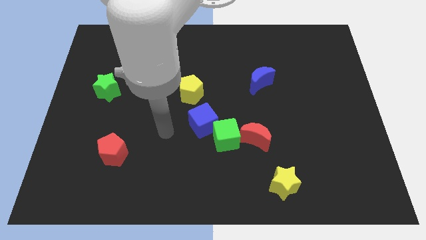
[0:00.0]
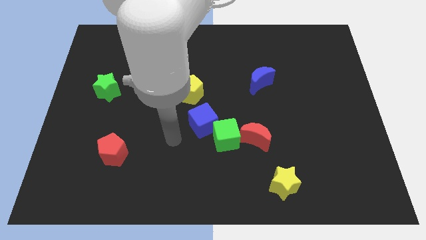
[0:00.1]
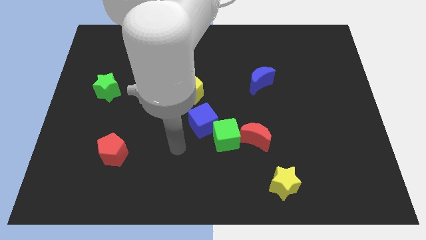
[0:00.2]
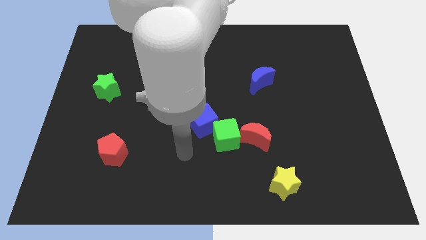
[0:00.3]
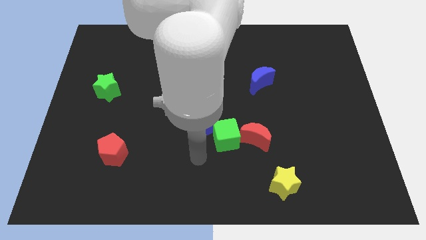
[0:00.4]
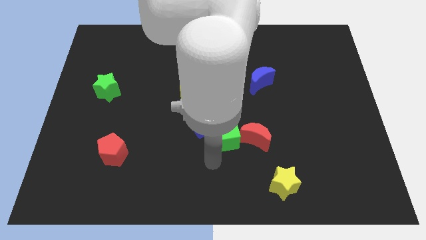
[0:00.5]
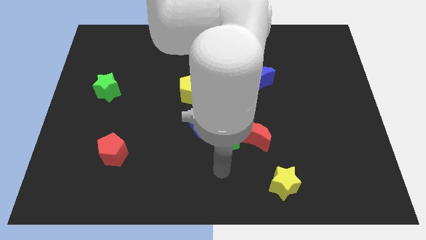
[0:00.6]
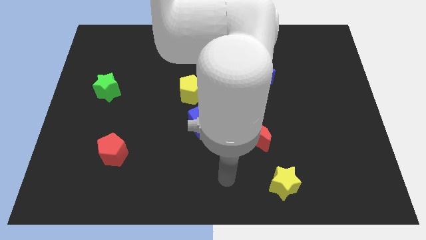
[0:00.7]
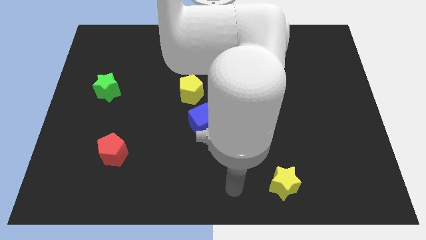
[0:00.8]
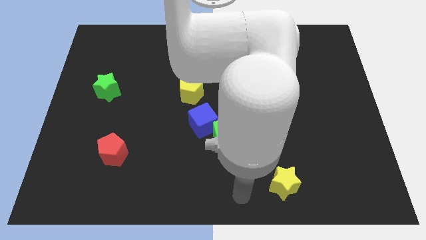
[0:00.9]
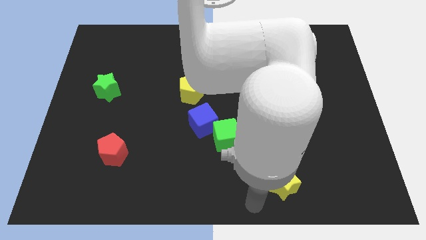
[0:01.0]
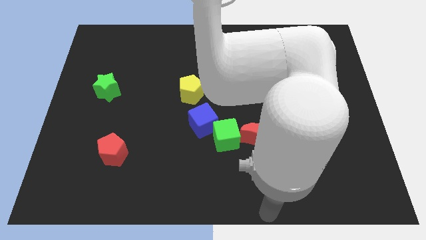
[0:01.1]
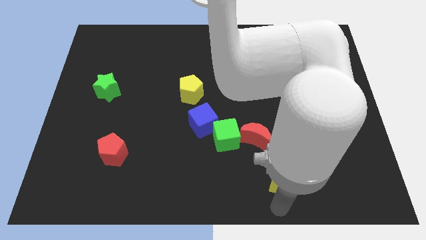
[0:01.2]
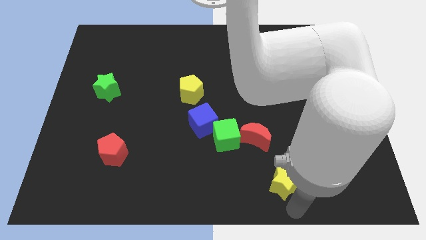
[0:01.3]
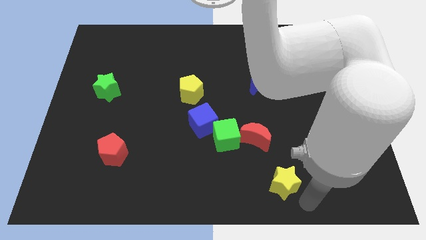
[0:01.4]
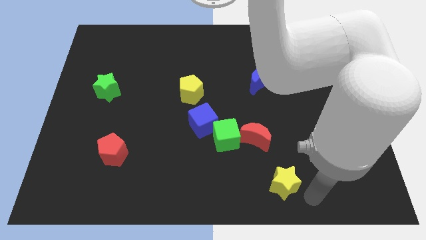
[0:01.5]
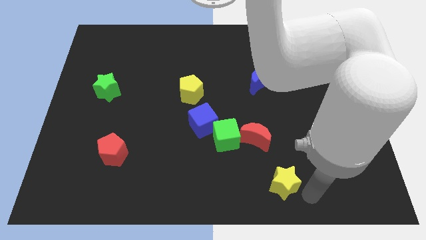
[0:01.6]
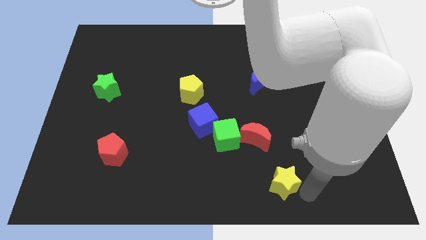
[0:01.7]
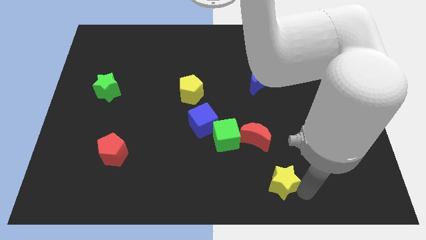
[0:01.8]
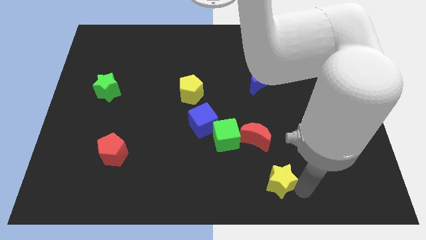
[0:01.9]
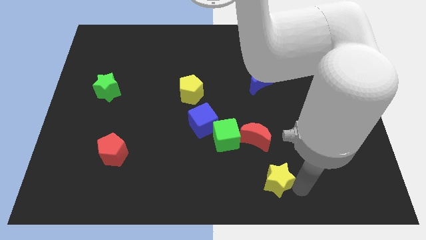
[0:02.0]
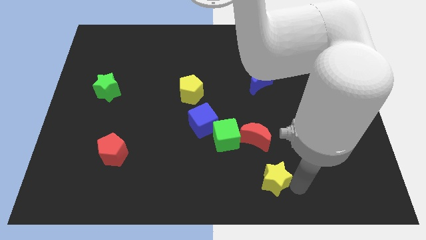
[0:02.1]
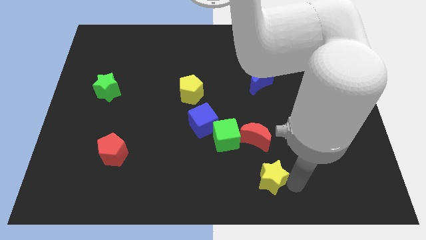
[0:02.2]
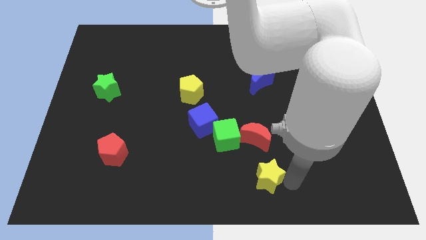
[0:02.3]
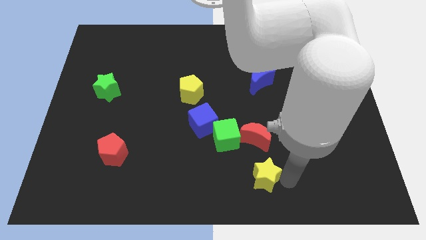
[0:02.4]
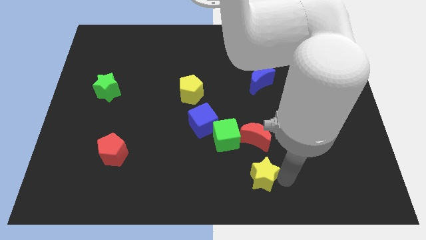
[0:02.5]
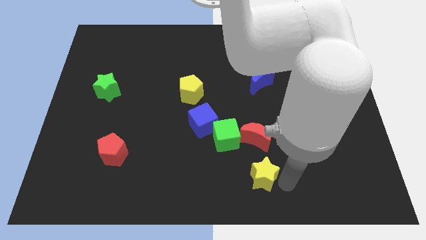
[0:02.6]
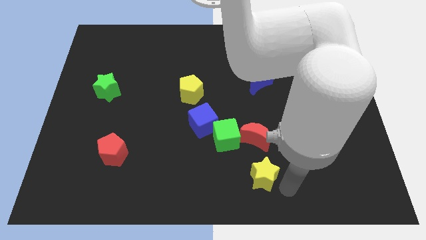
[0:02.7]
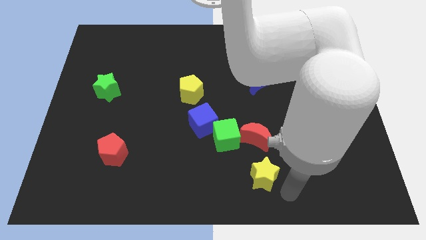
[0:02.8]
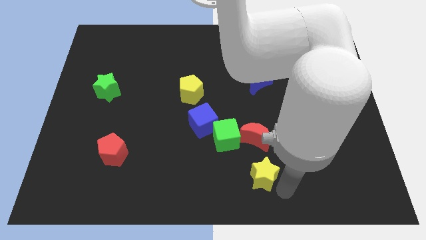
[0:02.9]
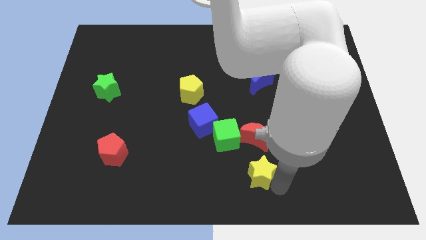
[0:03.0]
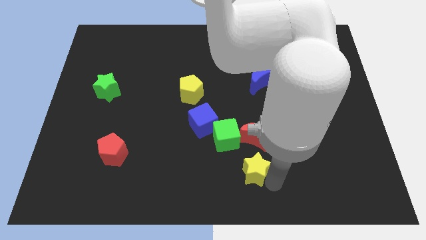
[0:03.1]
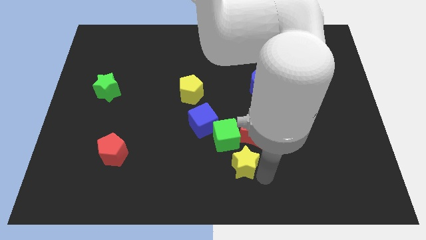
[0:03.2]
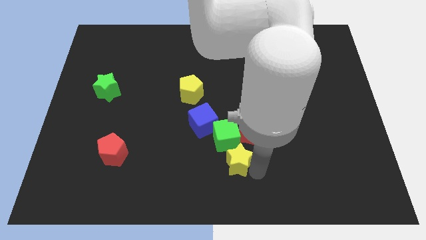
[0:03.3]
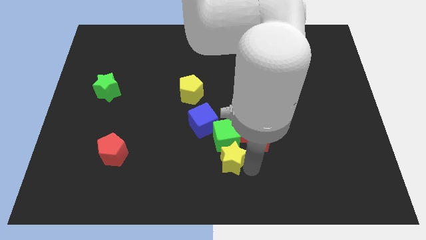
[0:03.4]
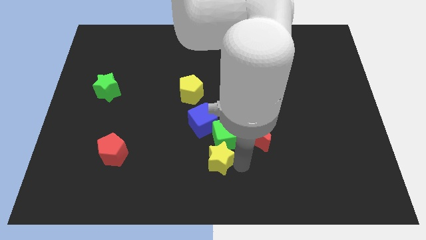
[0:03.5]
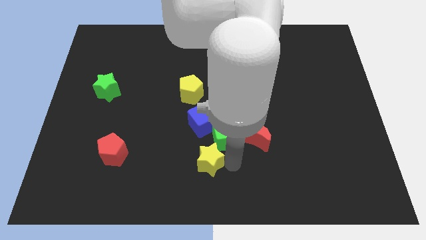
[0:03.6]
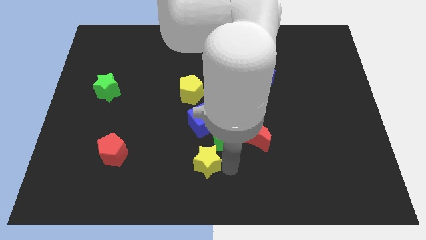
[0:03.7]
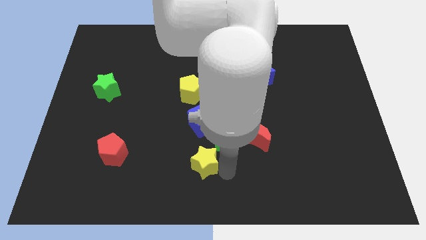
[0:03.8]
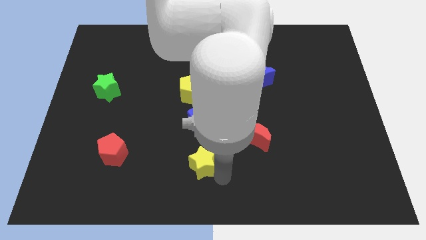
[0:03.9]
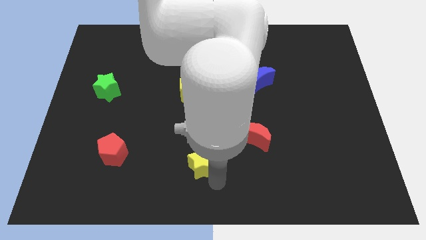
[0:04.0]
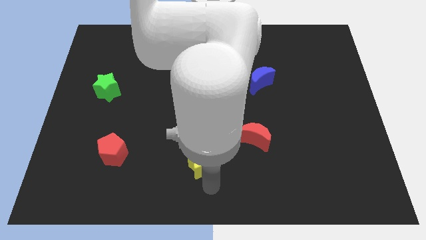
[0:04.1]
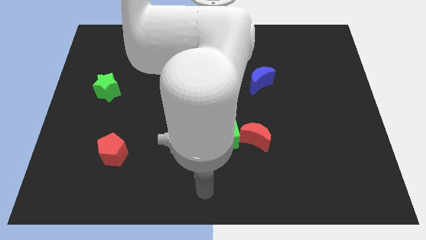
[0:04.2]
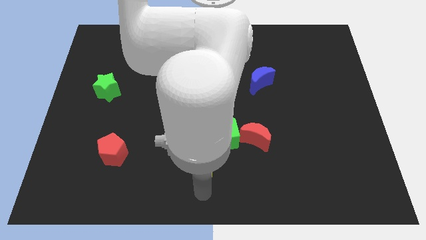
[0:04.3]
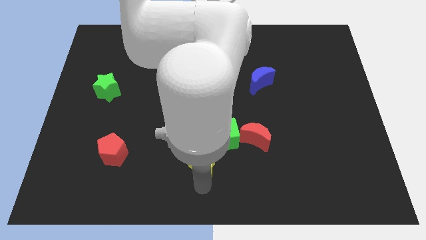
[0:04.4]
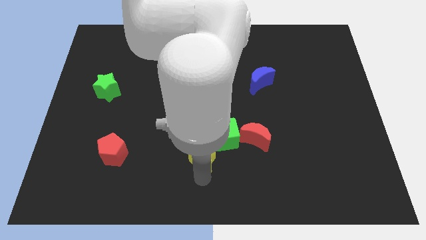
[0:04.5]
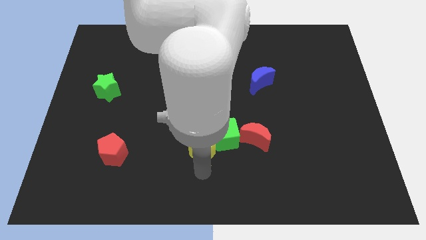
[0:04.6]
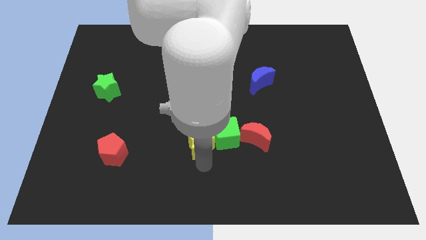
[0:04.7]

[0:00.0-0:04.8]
slide the yellow star to the bottom of the yellow pentagon

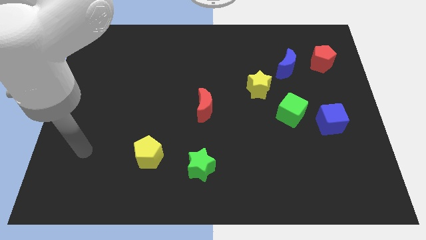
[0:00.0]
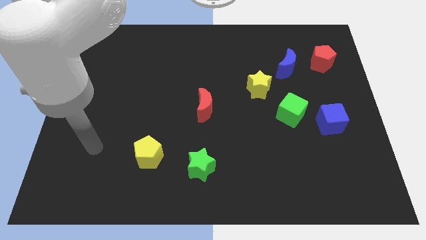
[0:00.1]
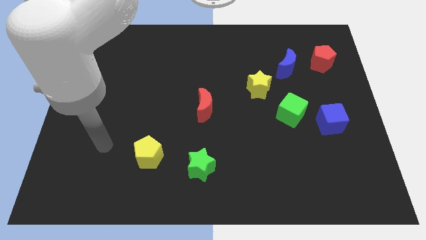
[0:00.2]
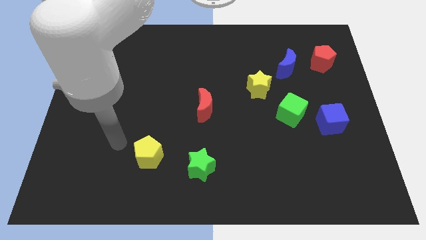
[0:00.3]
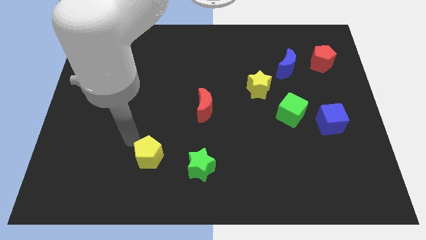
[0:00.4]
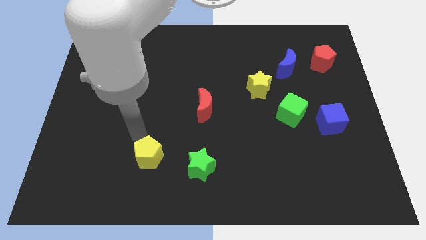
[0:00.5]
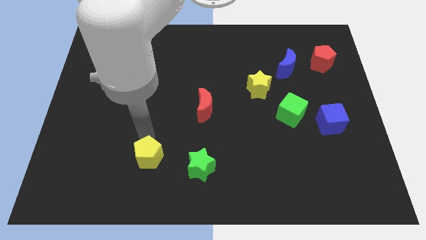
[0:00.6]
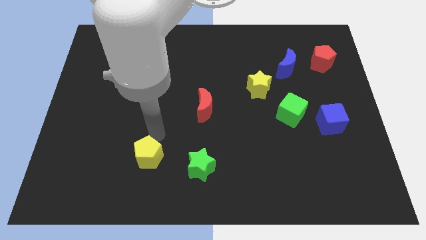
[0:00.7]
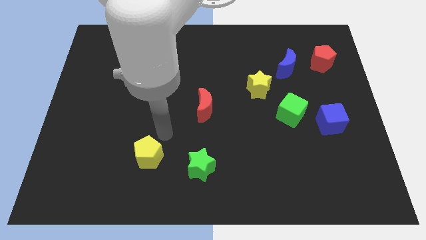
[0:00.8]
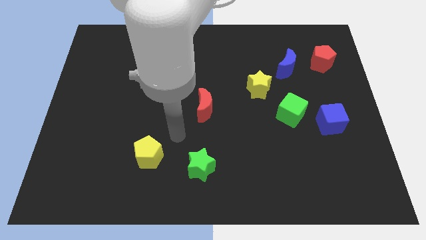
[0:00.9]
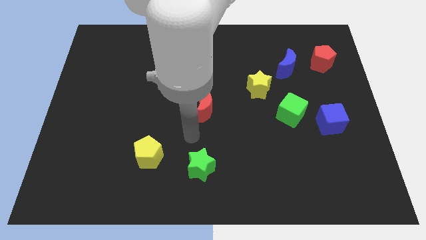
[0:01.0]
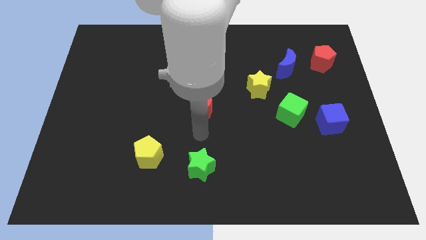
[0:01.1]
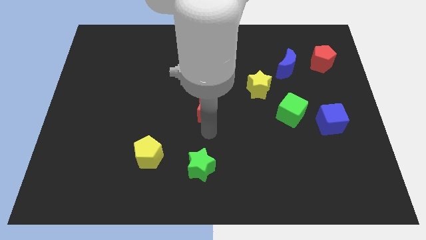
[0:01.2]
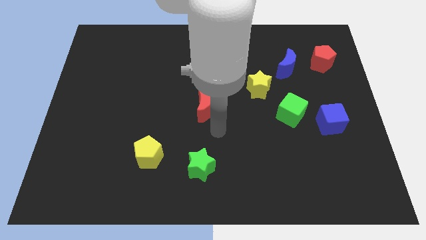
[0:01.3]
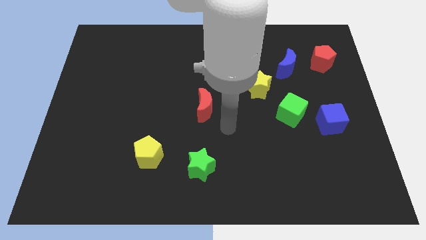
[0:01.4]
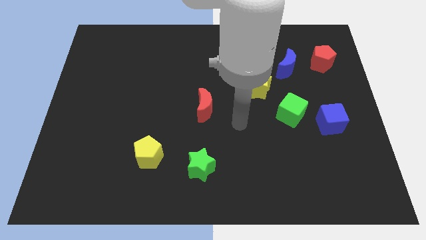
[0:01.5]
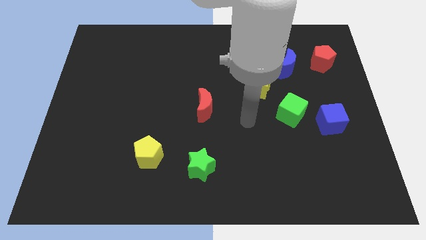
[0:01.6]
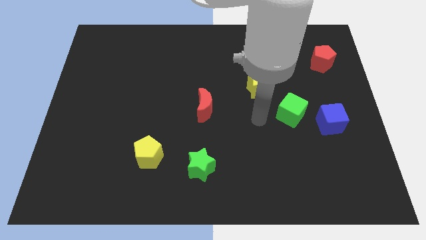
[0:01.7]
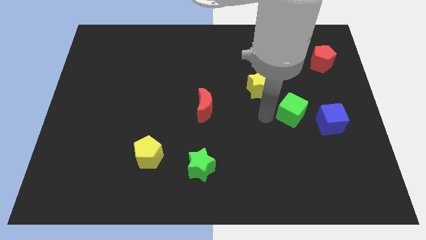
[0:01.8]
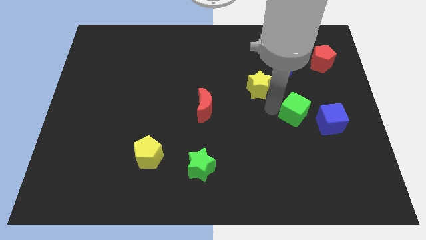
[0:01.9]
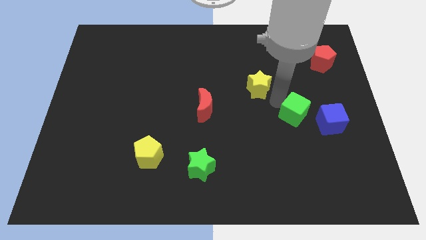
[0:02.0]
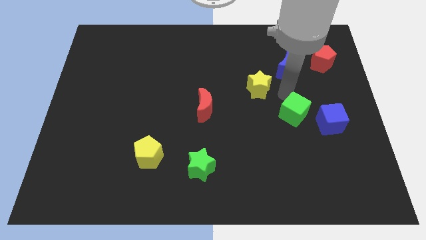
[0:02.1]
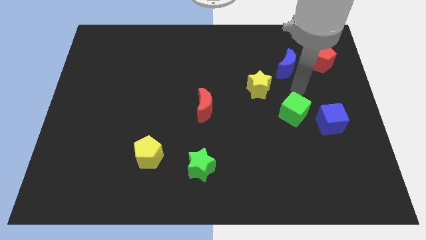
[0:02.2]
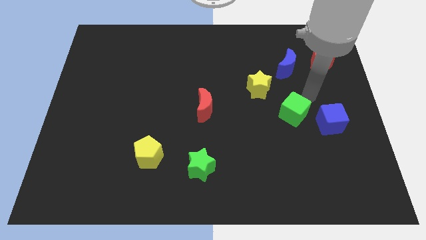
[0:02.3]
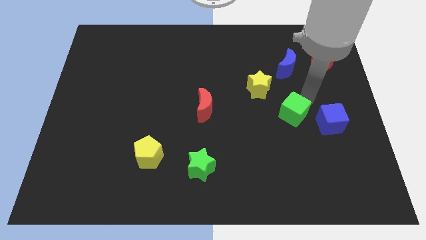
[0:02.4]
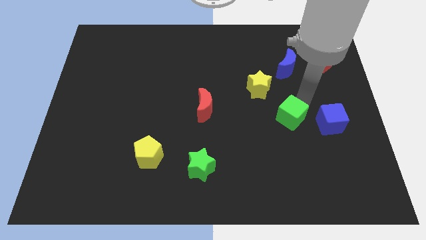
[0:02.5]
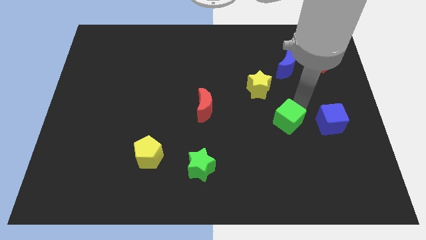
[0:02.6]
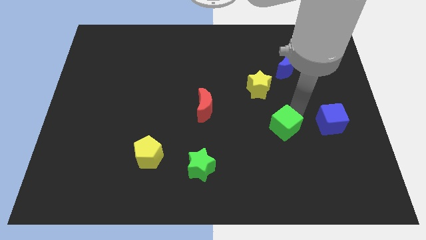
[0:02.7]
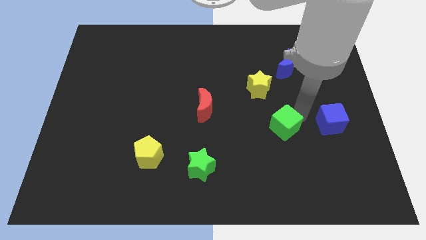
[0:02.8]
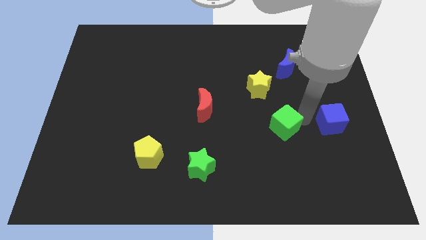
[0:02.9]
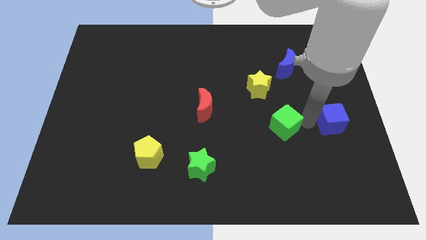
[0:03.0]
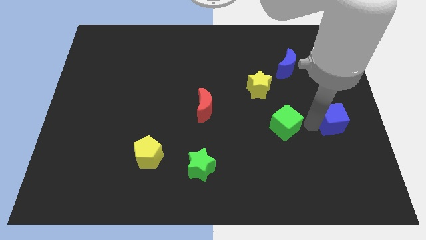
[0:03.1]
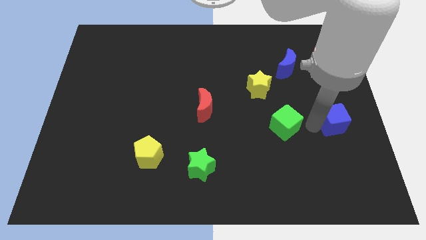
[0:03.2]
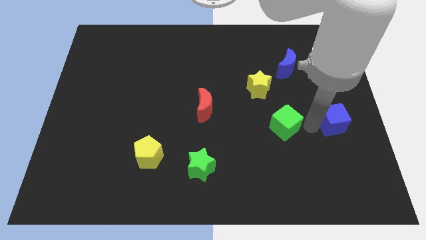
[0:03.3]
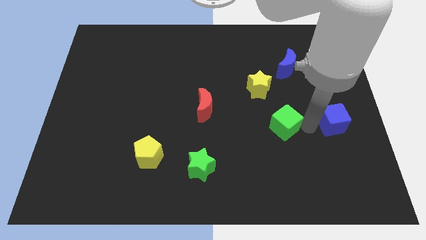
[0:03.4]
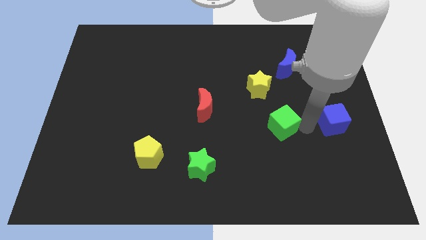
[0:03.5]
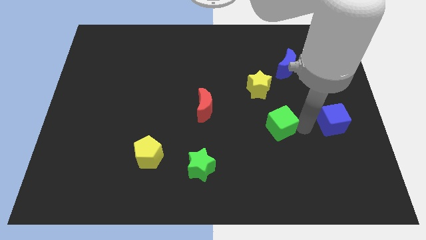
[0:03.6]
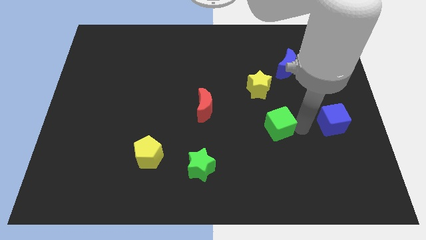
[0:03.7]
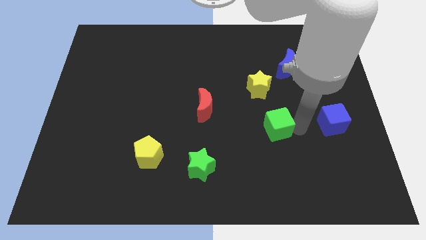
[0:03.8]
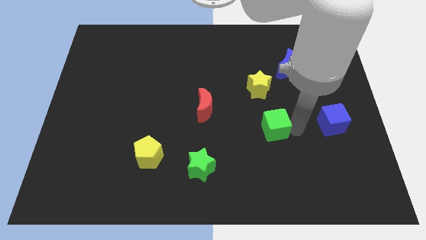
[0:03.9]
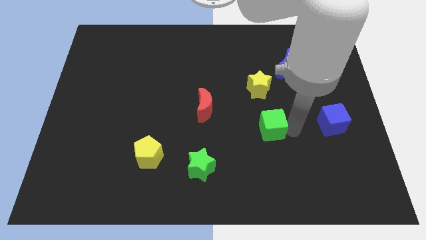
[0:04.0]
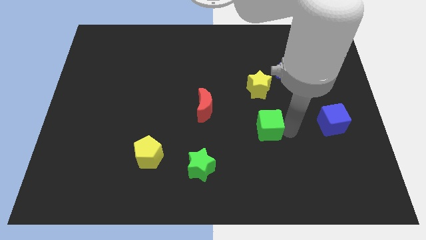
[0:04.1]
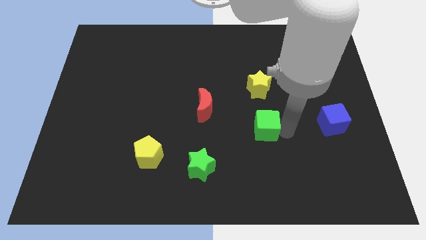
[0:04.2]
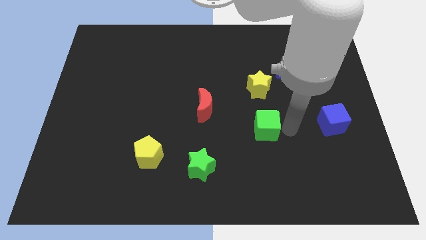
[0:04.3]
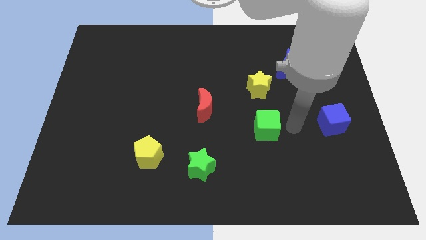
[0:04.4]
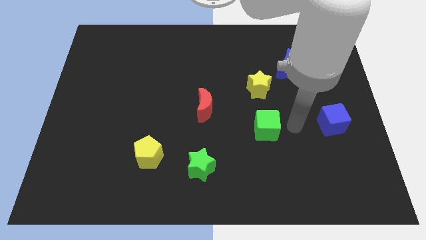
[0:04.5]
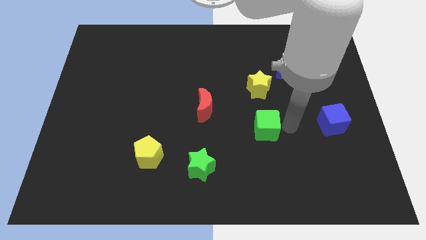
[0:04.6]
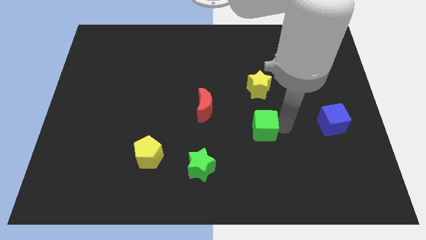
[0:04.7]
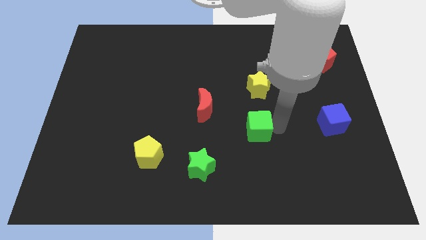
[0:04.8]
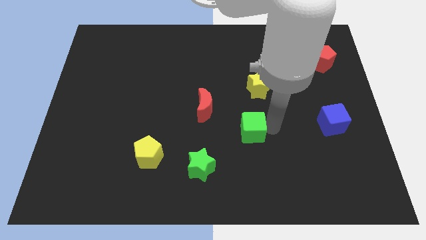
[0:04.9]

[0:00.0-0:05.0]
put the green cube to the bottom right of the red moon
